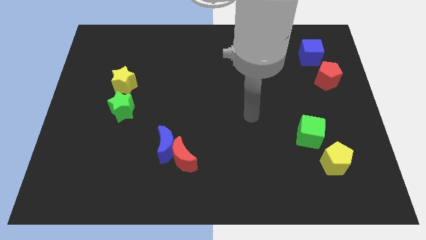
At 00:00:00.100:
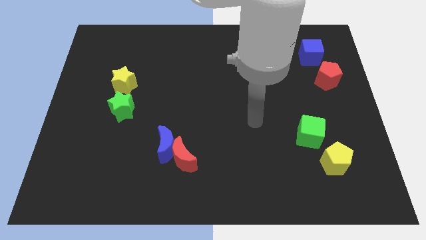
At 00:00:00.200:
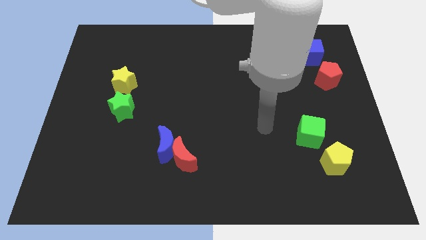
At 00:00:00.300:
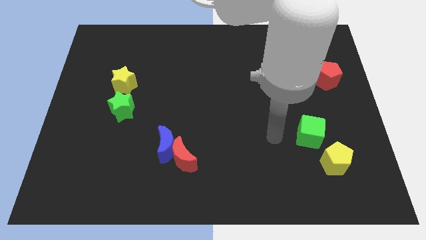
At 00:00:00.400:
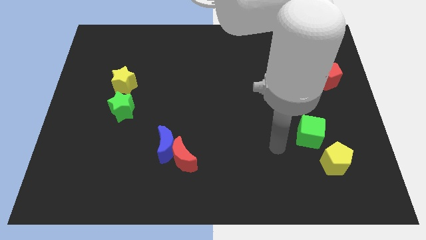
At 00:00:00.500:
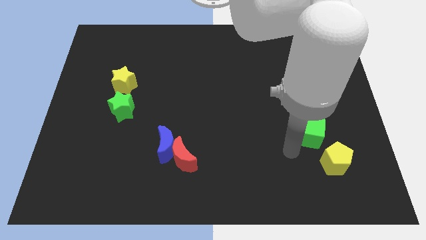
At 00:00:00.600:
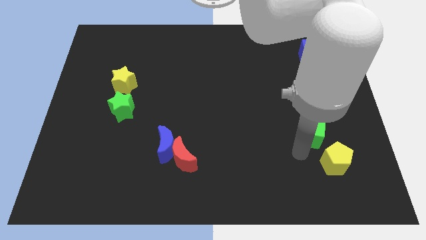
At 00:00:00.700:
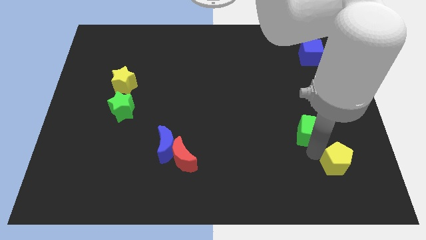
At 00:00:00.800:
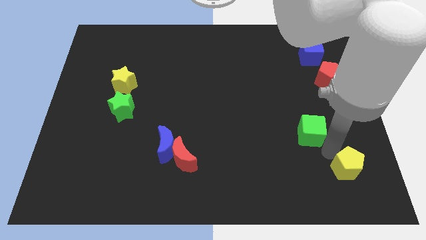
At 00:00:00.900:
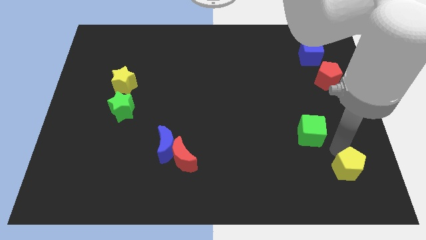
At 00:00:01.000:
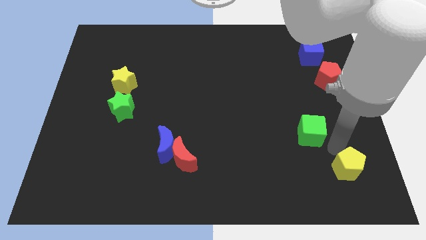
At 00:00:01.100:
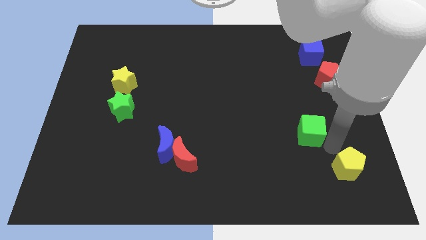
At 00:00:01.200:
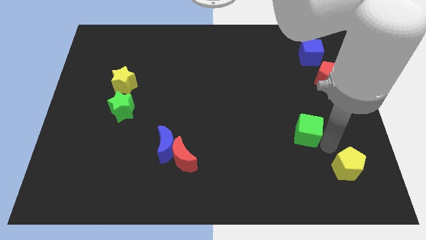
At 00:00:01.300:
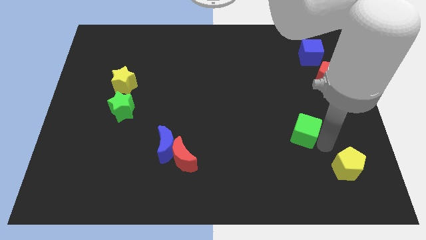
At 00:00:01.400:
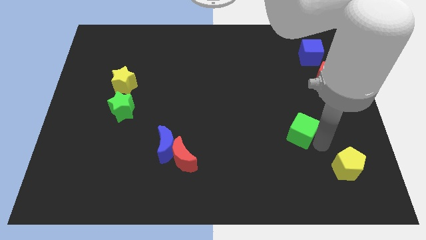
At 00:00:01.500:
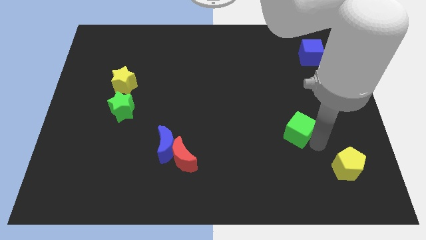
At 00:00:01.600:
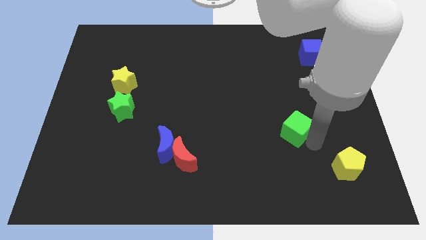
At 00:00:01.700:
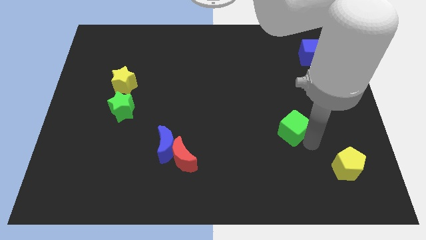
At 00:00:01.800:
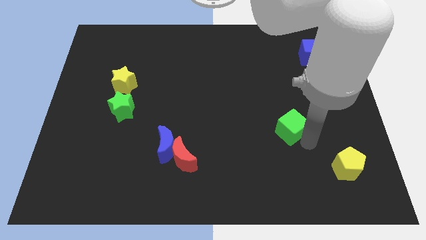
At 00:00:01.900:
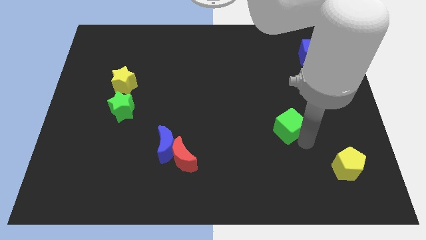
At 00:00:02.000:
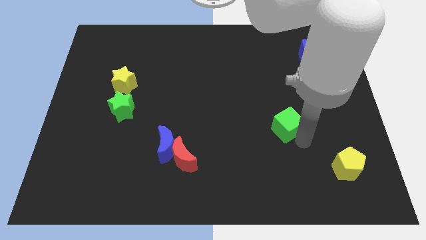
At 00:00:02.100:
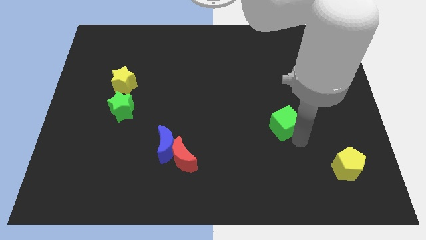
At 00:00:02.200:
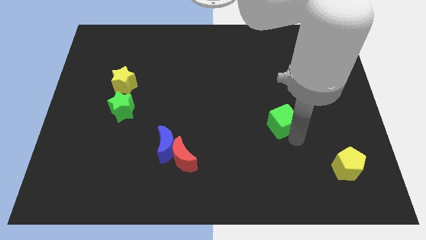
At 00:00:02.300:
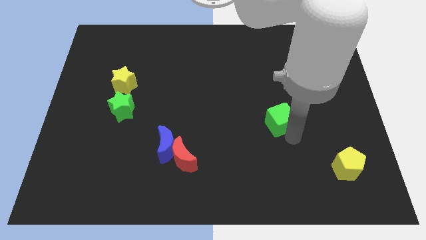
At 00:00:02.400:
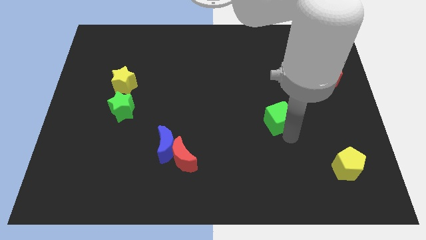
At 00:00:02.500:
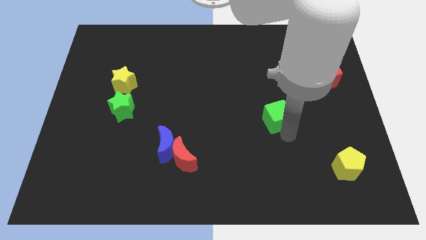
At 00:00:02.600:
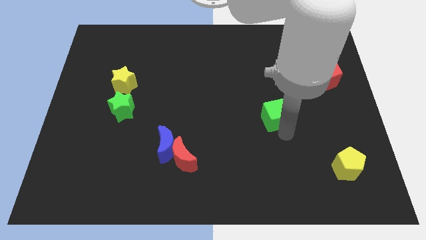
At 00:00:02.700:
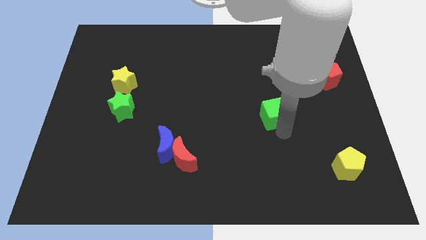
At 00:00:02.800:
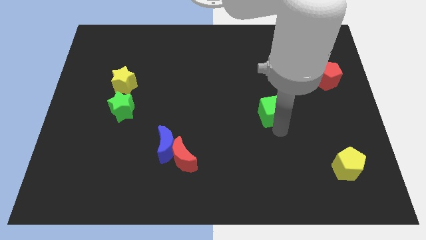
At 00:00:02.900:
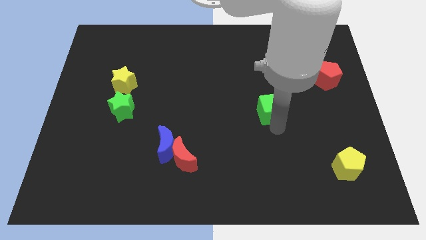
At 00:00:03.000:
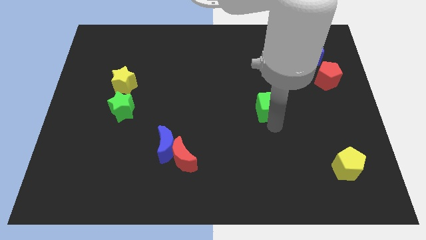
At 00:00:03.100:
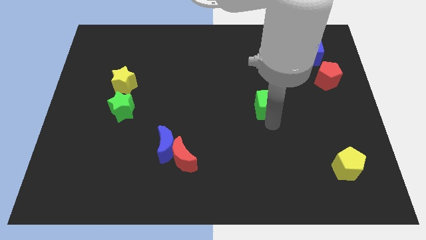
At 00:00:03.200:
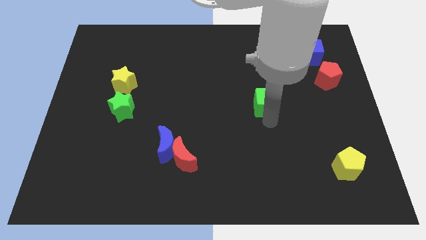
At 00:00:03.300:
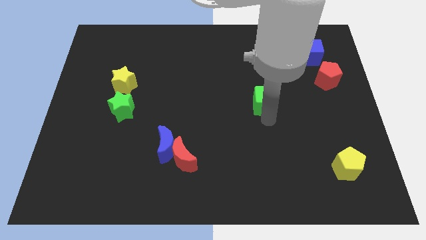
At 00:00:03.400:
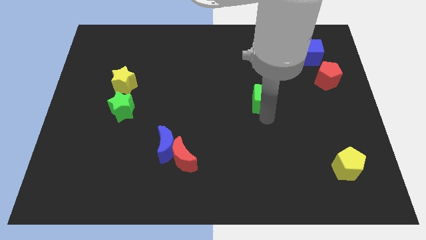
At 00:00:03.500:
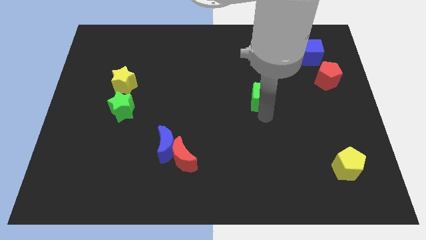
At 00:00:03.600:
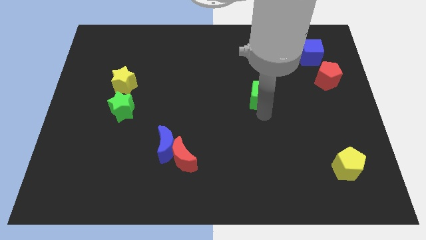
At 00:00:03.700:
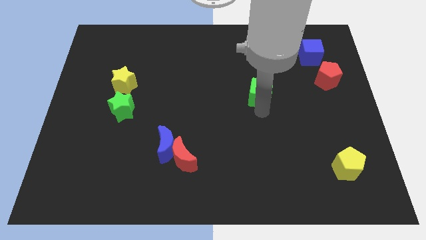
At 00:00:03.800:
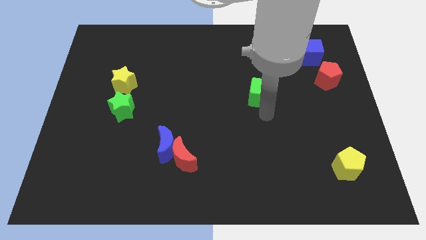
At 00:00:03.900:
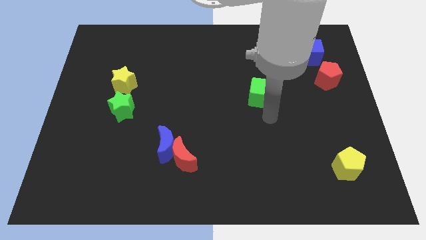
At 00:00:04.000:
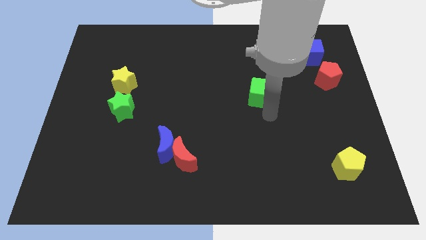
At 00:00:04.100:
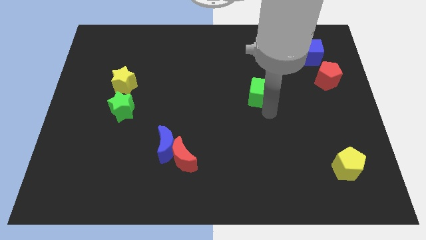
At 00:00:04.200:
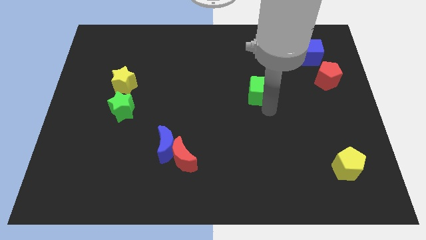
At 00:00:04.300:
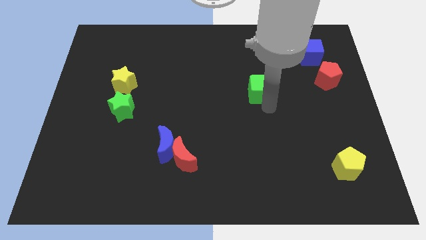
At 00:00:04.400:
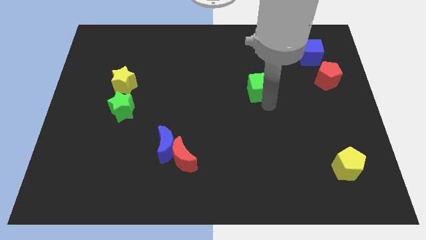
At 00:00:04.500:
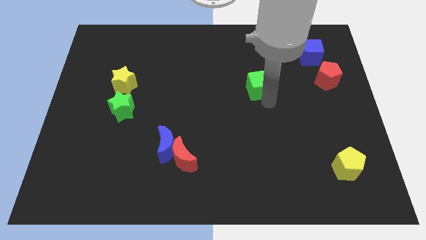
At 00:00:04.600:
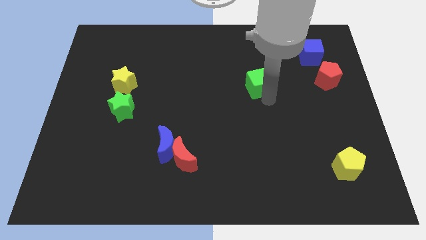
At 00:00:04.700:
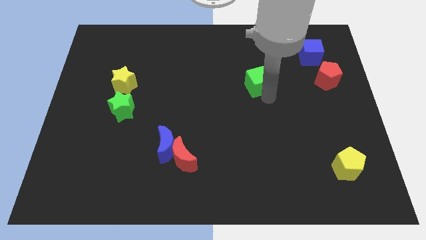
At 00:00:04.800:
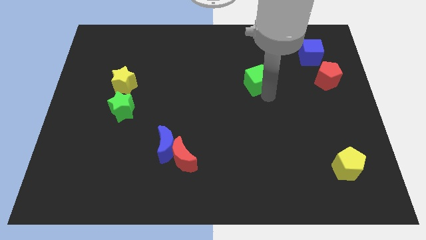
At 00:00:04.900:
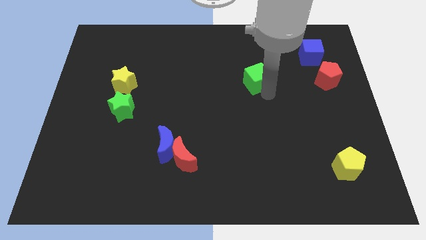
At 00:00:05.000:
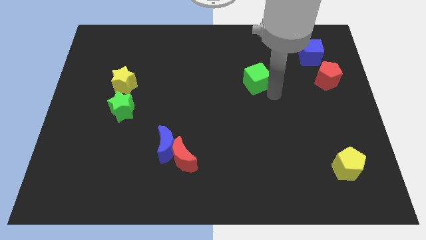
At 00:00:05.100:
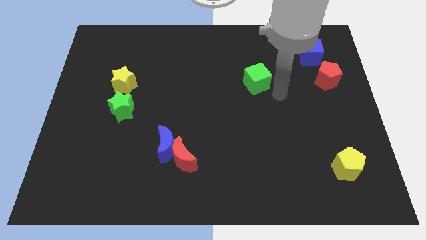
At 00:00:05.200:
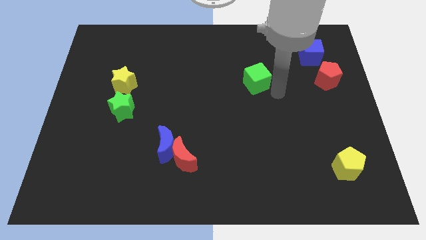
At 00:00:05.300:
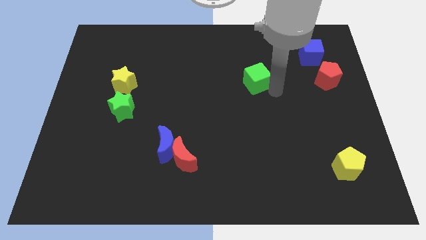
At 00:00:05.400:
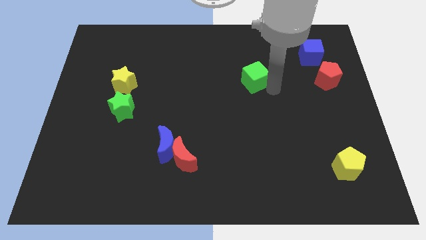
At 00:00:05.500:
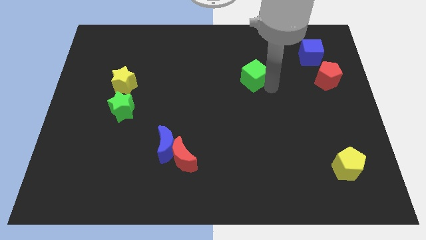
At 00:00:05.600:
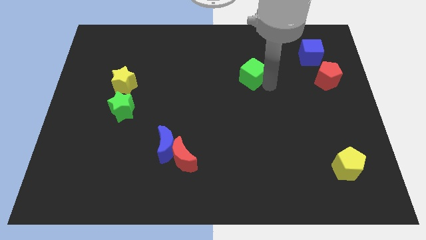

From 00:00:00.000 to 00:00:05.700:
push the green cube upwards and then to the left

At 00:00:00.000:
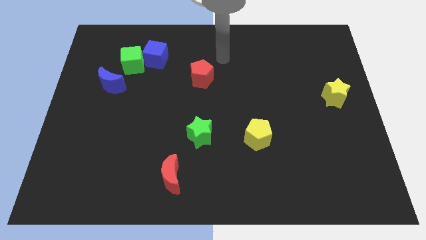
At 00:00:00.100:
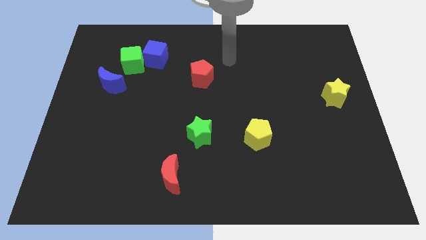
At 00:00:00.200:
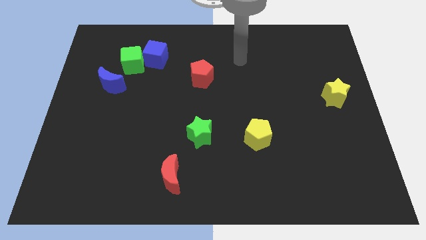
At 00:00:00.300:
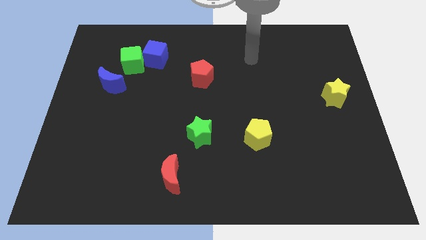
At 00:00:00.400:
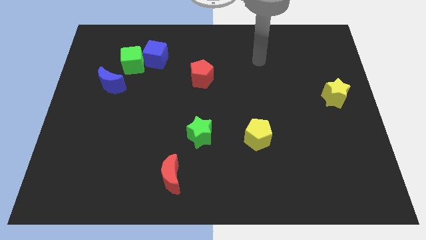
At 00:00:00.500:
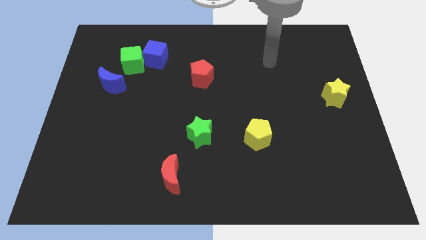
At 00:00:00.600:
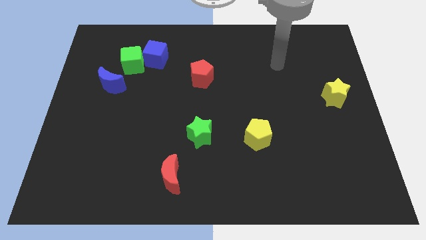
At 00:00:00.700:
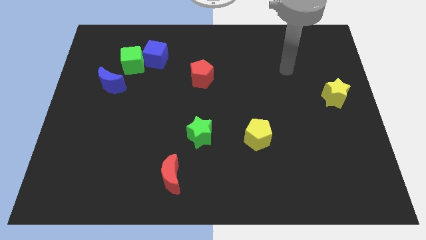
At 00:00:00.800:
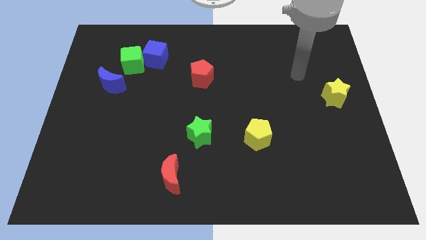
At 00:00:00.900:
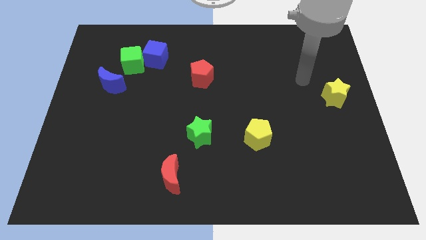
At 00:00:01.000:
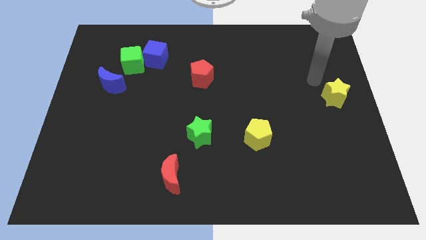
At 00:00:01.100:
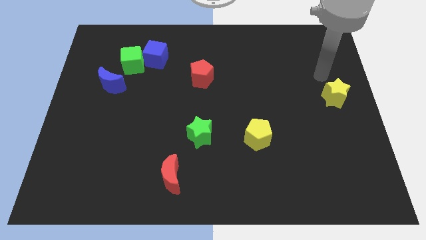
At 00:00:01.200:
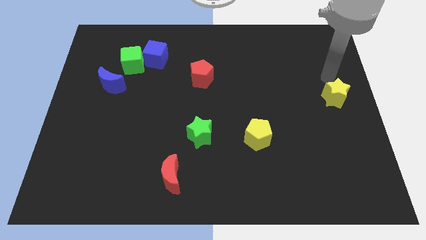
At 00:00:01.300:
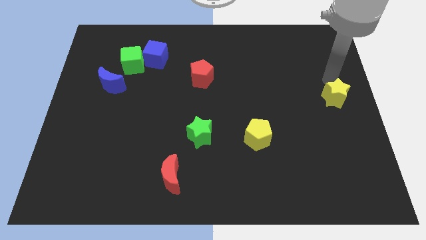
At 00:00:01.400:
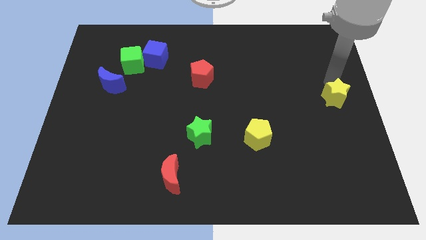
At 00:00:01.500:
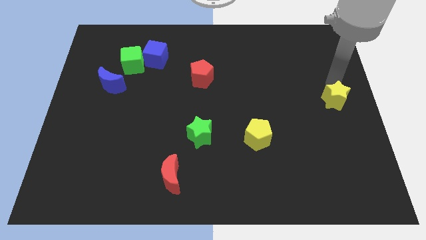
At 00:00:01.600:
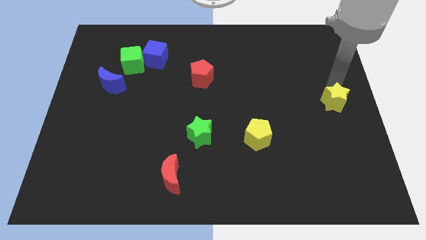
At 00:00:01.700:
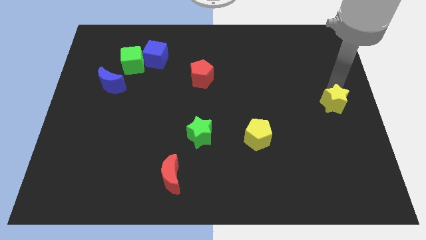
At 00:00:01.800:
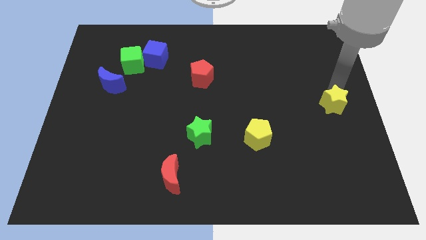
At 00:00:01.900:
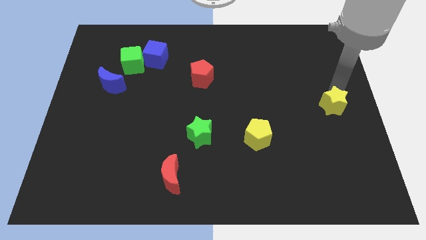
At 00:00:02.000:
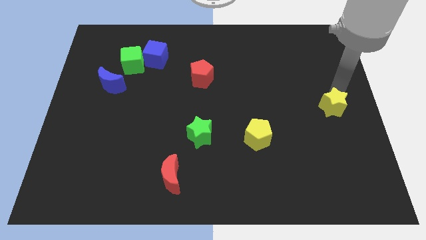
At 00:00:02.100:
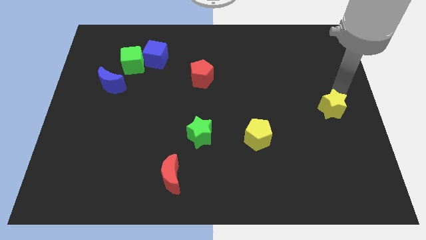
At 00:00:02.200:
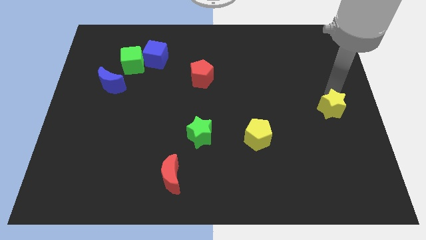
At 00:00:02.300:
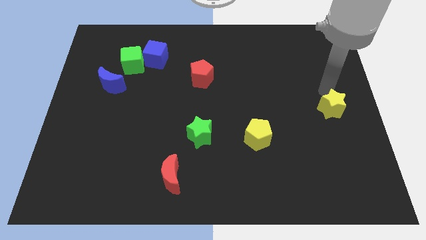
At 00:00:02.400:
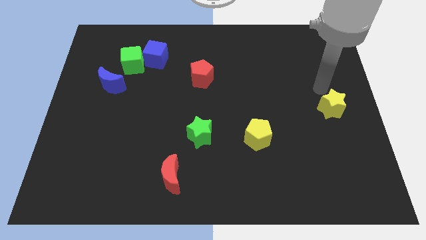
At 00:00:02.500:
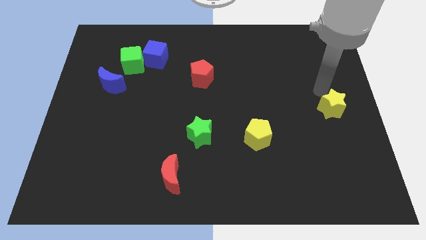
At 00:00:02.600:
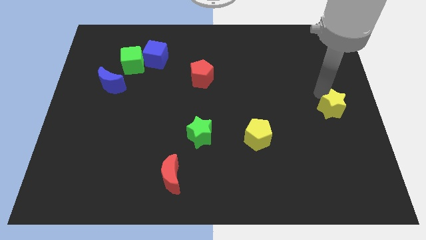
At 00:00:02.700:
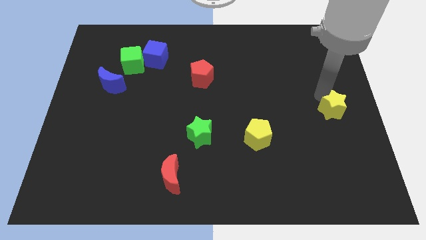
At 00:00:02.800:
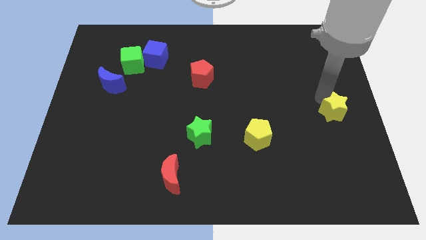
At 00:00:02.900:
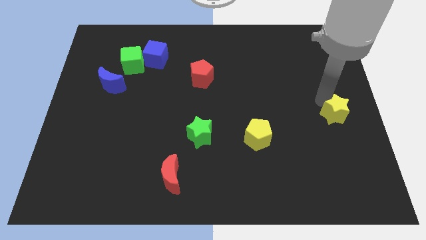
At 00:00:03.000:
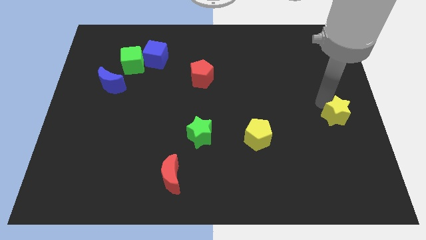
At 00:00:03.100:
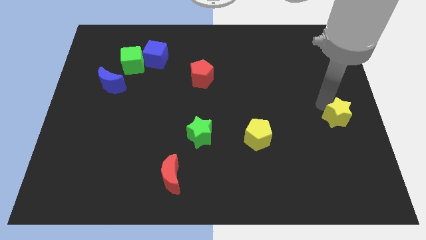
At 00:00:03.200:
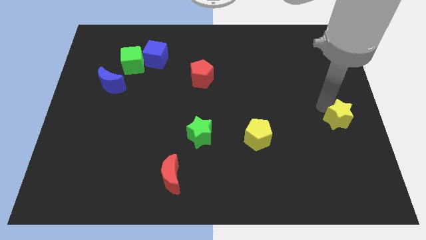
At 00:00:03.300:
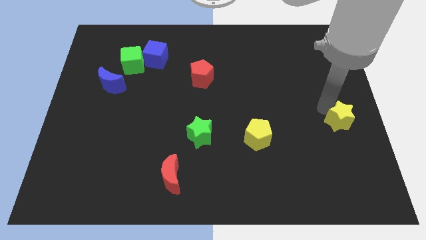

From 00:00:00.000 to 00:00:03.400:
push the yellow star somewhat downwards
